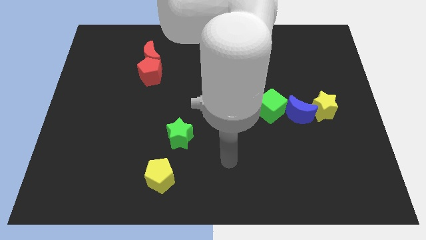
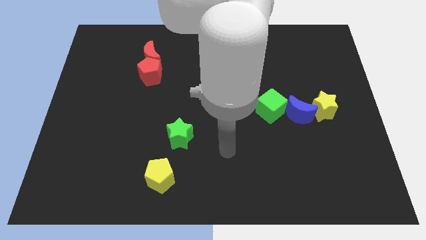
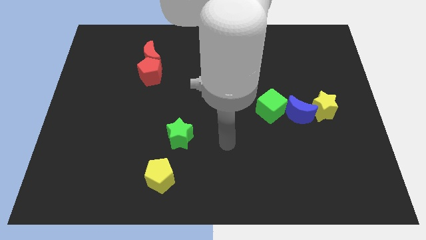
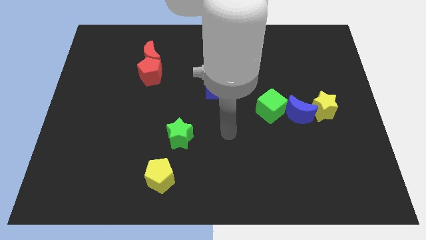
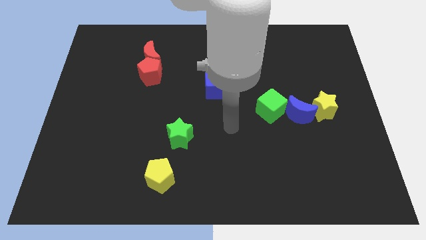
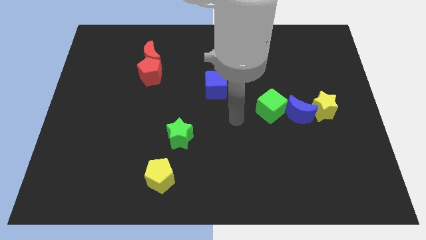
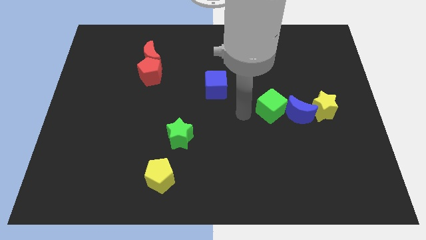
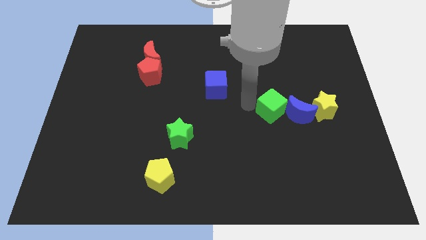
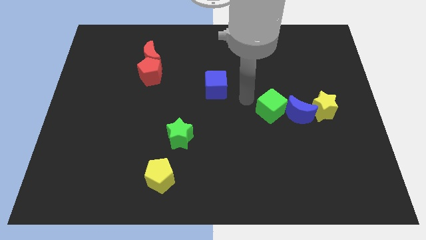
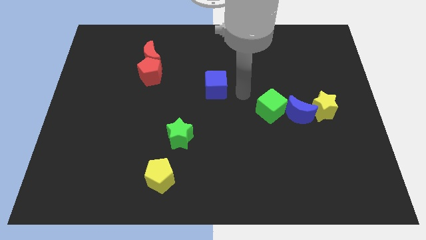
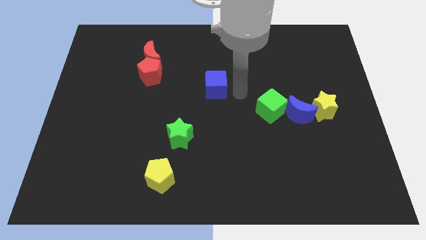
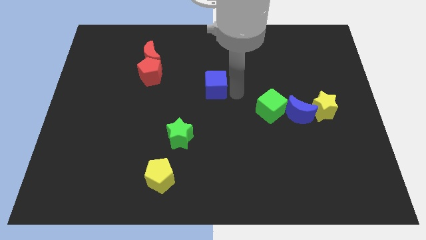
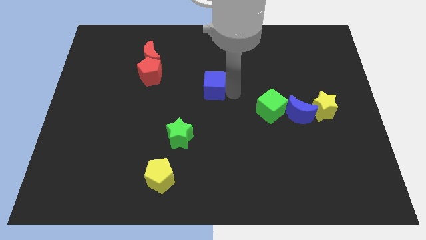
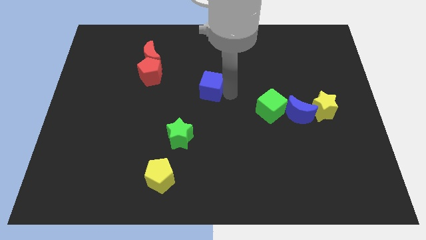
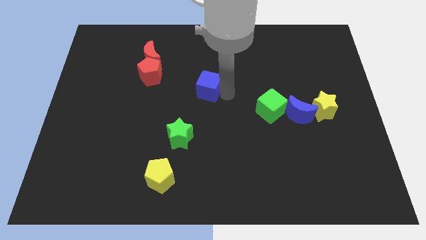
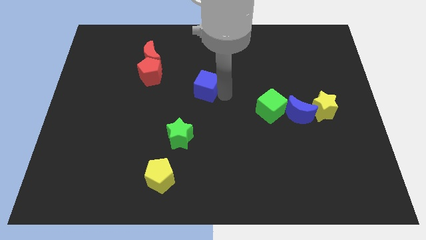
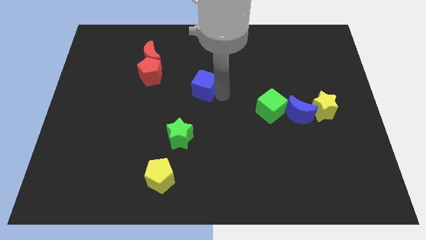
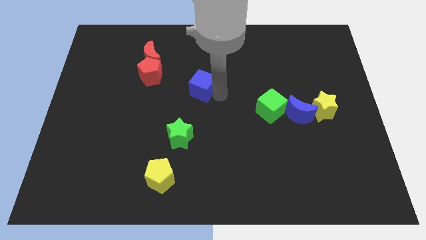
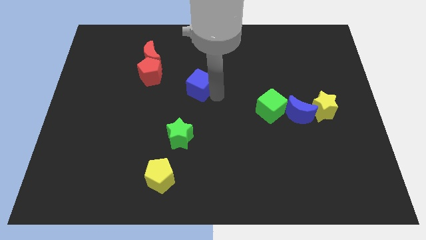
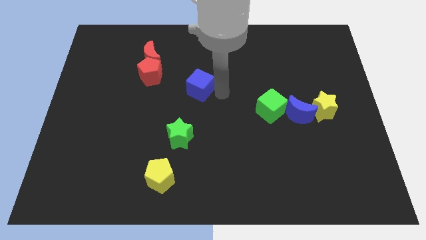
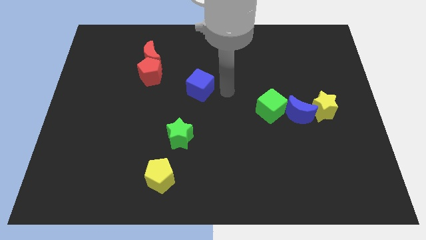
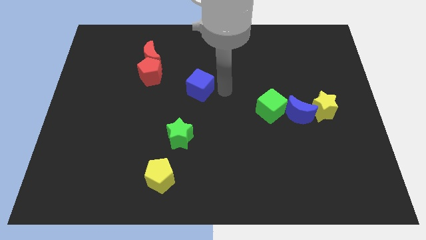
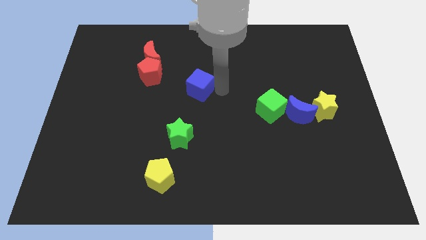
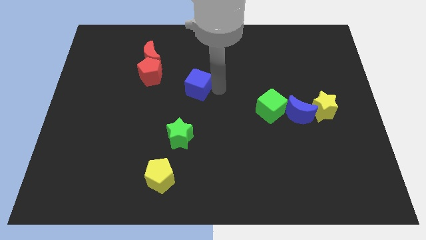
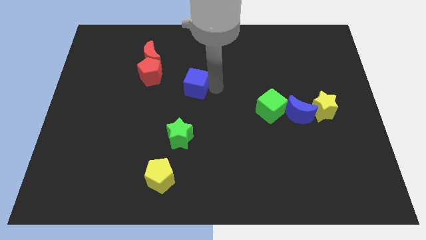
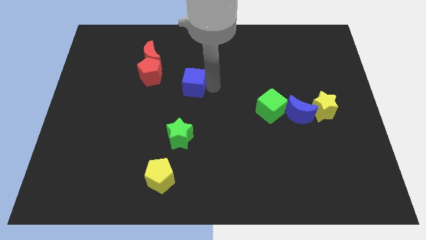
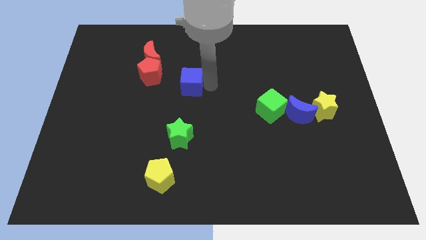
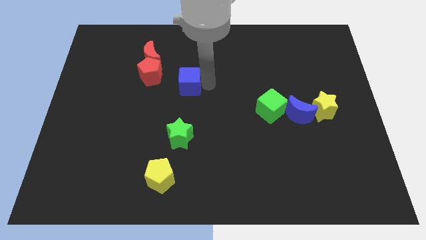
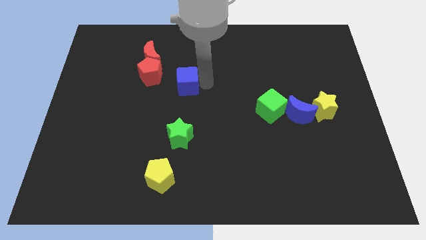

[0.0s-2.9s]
push the blue cube to the left a bit

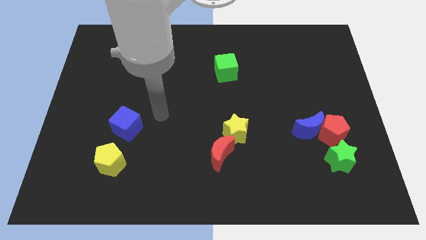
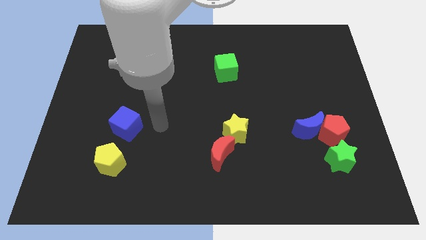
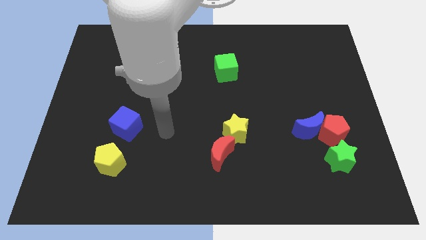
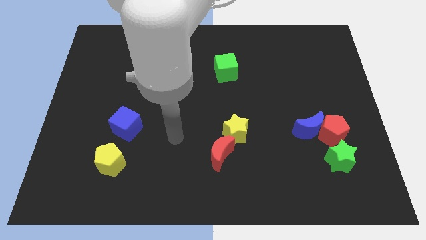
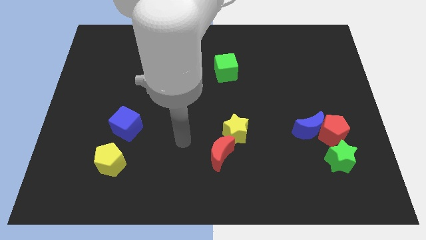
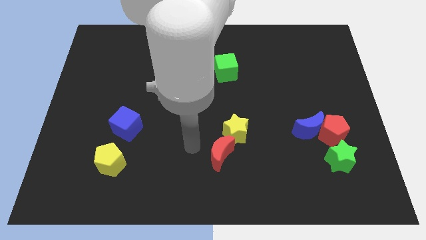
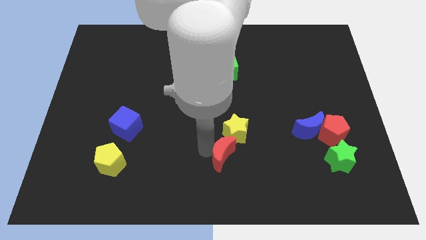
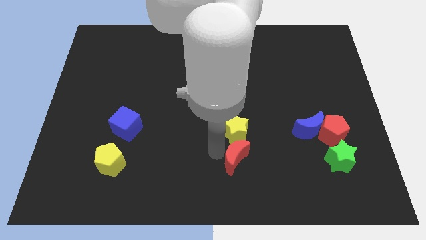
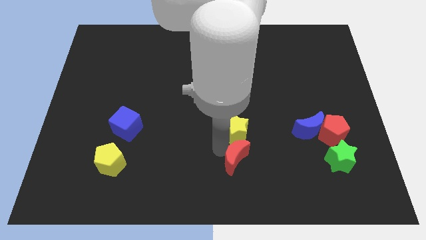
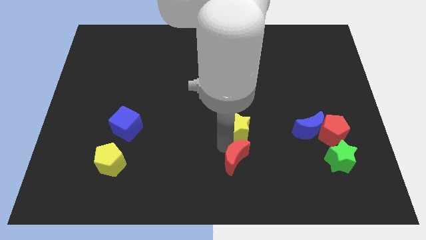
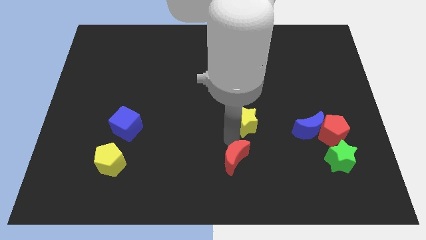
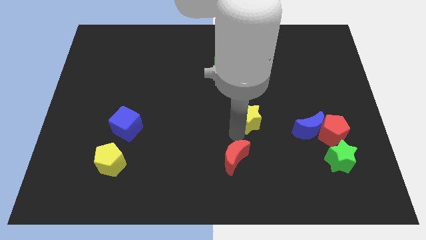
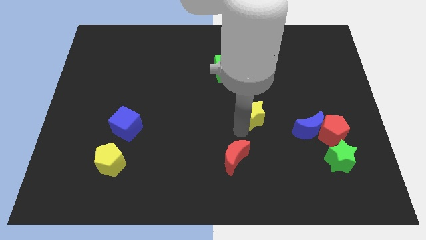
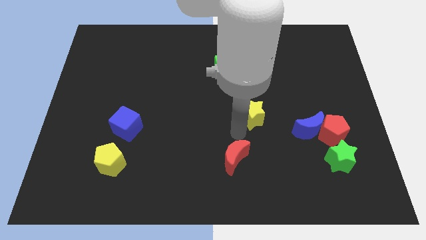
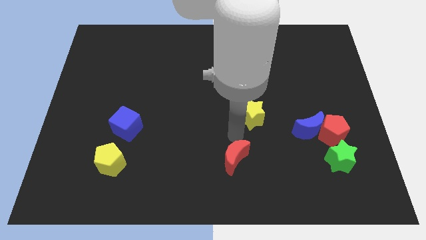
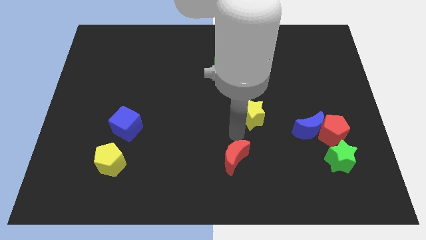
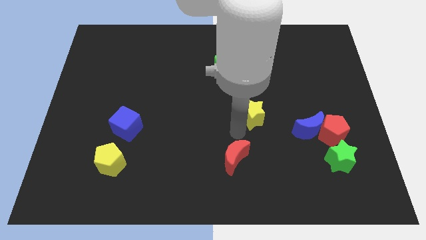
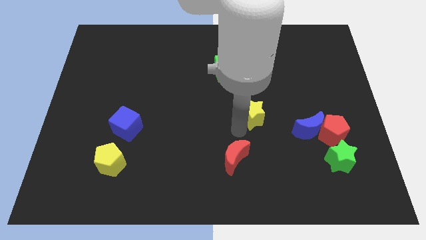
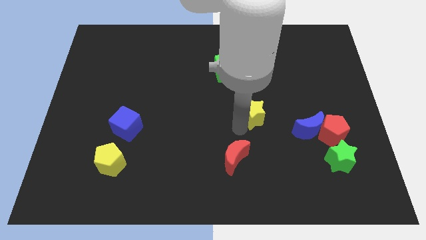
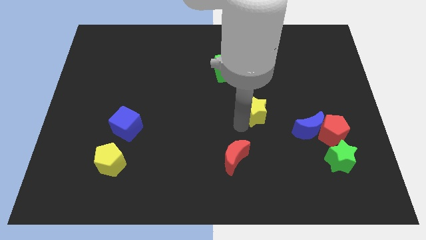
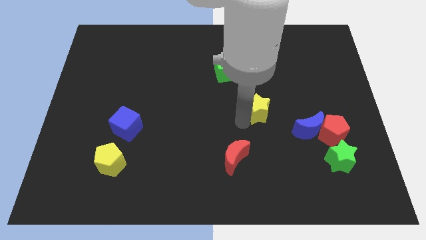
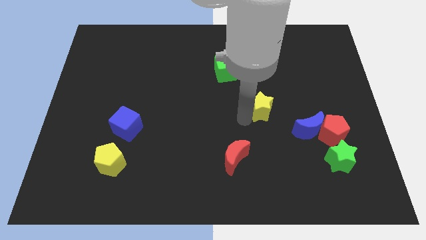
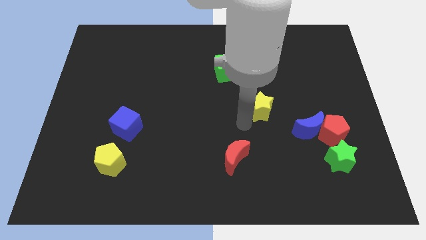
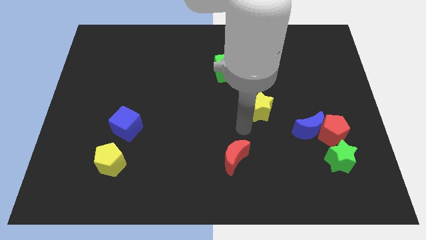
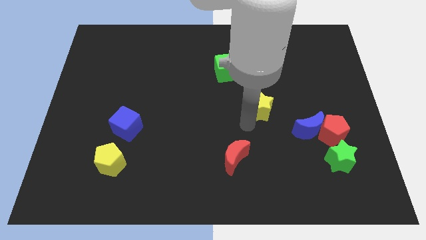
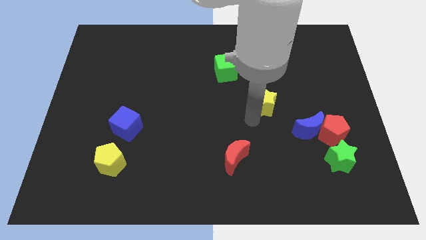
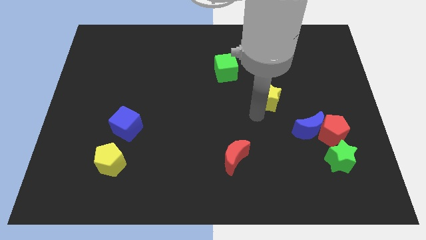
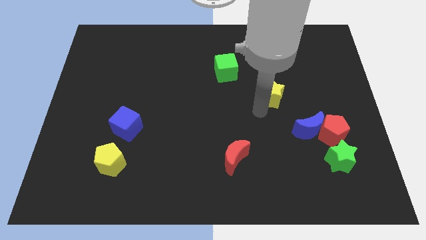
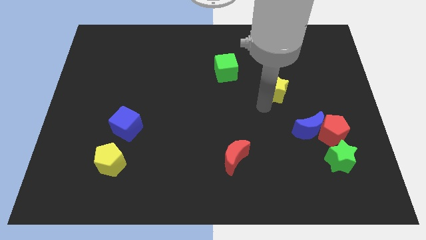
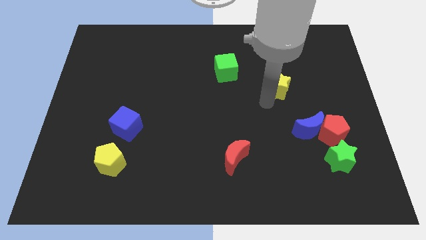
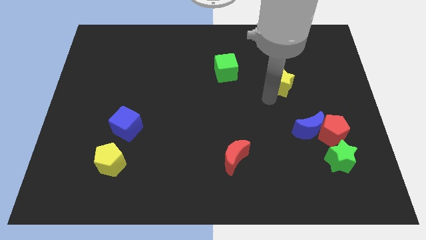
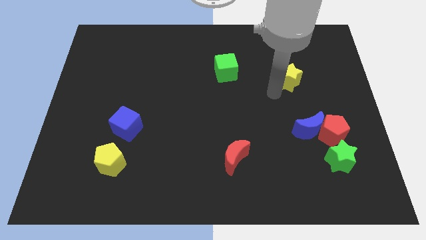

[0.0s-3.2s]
move the yellow star upwards and right

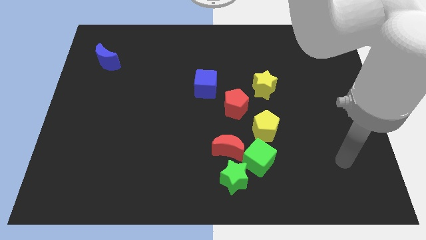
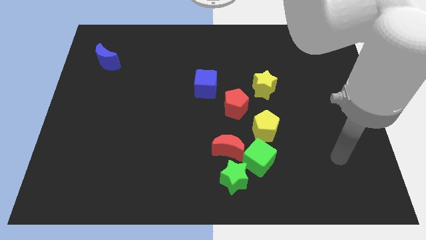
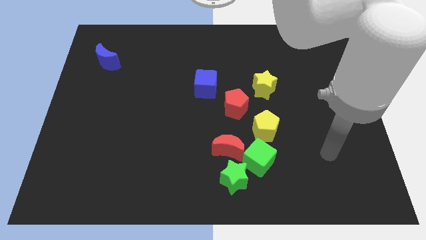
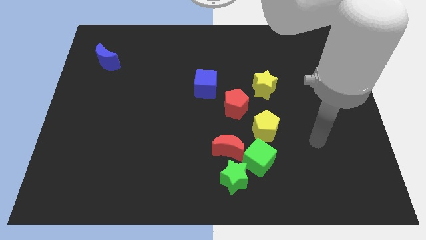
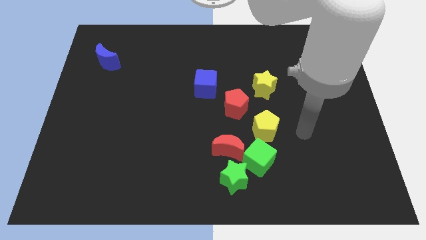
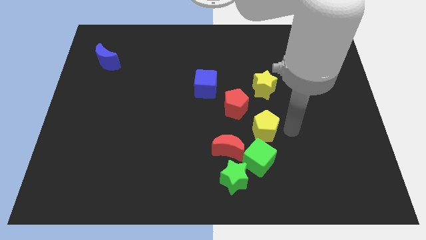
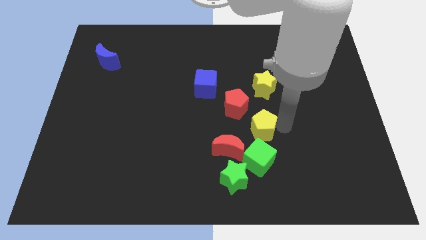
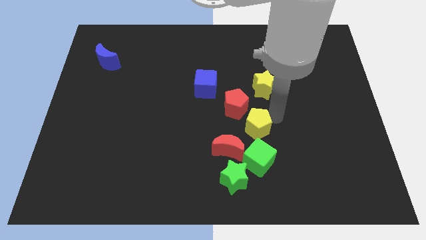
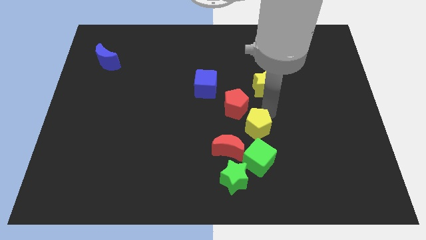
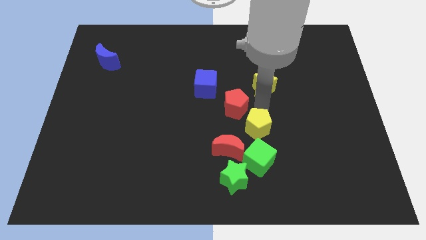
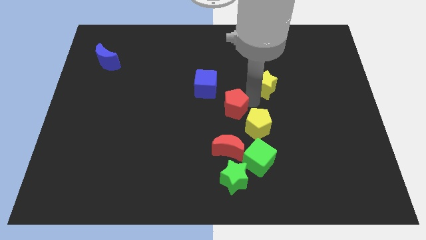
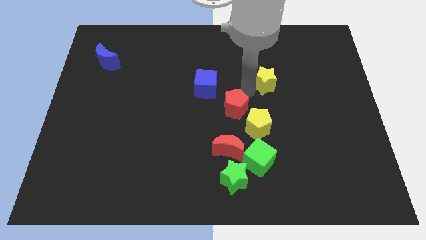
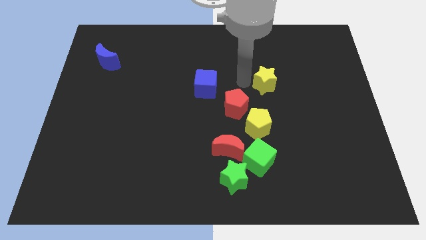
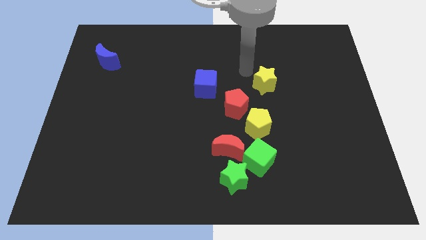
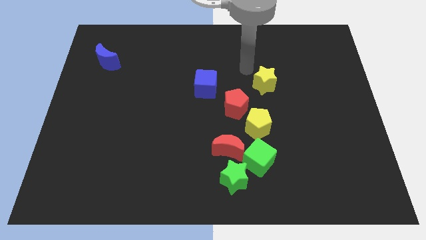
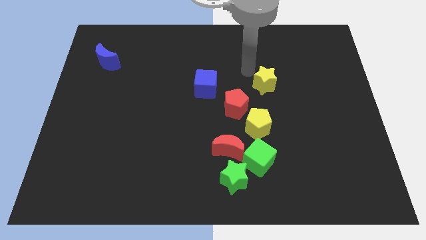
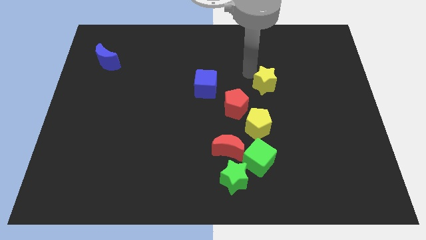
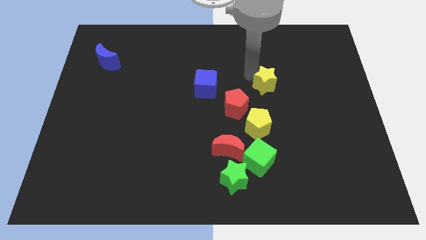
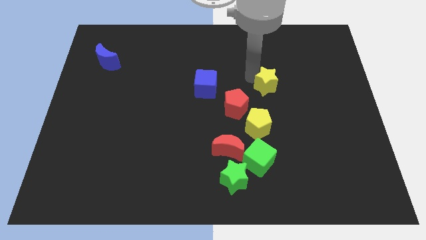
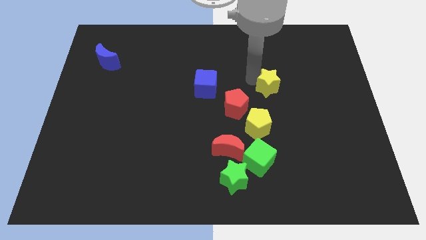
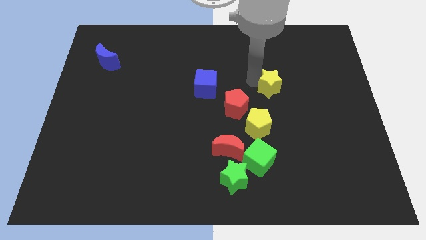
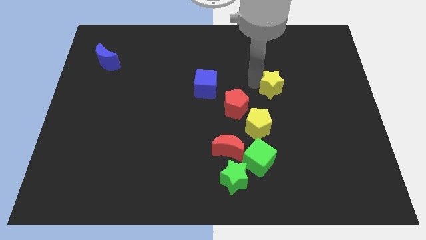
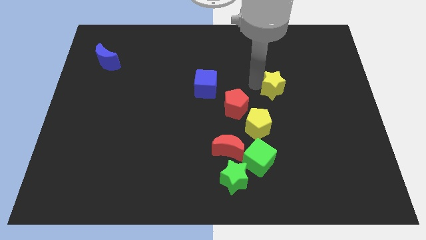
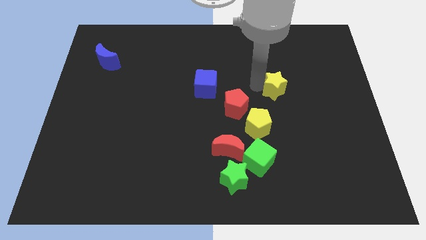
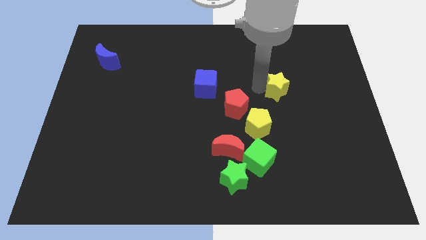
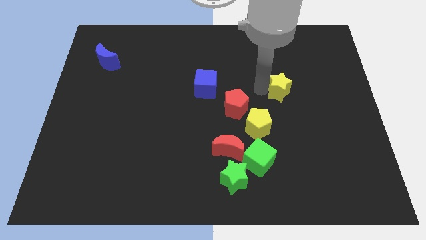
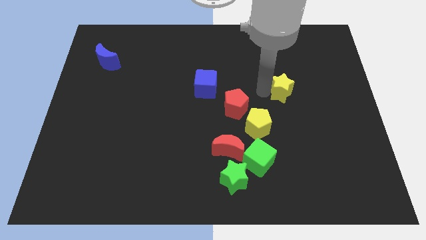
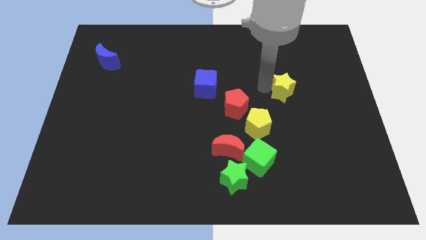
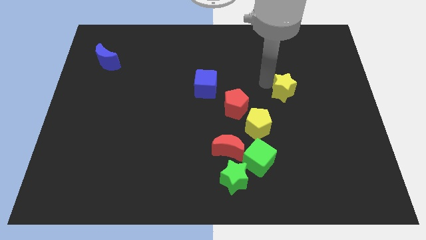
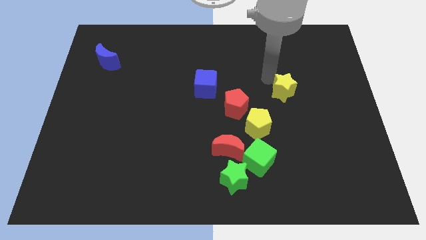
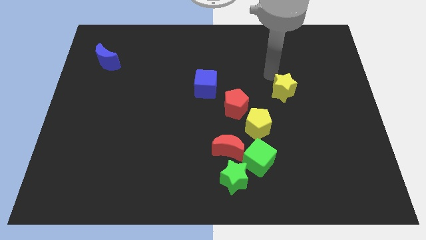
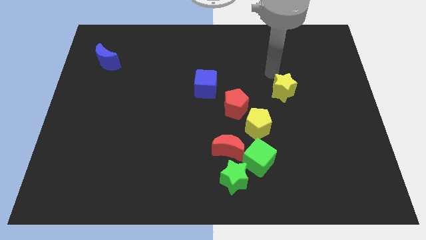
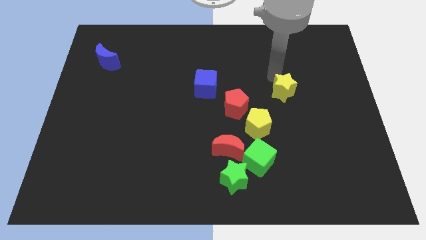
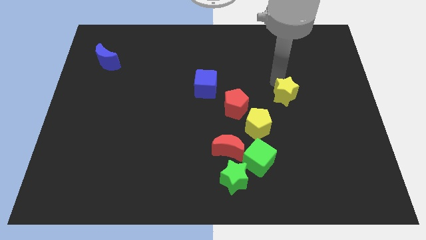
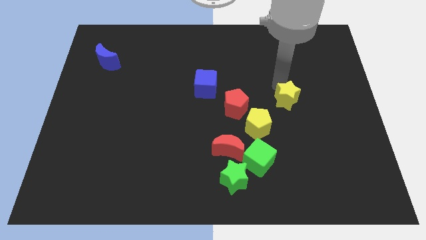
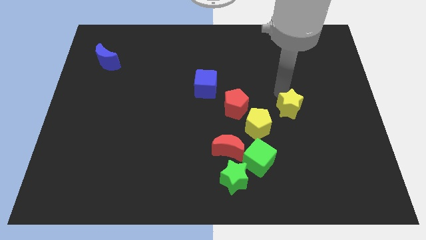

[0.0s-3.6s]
push the yellow star somewhat diagonally down and right
